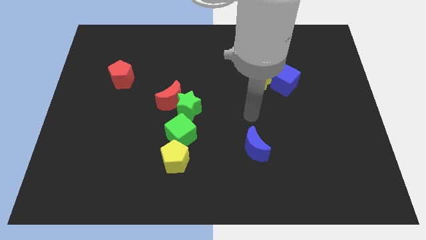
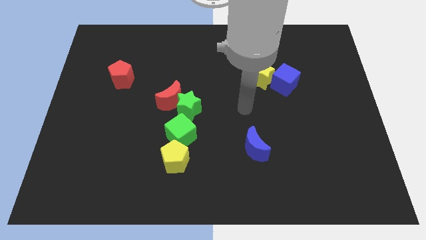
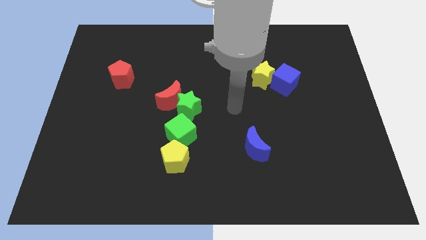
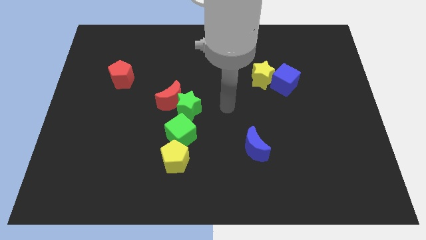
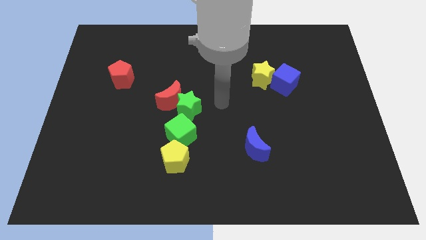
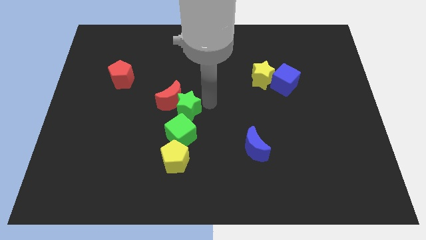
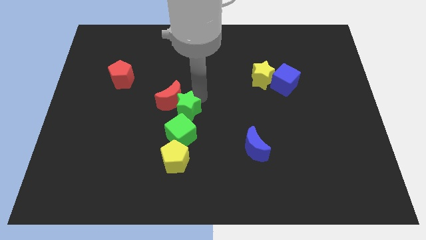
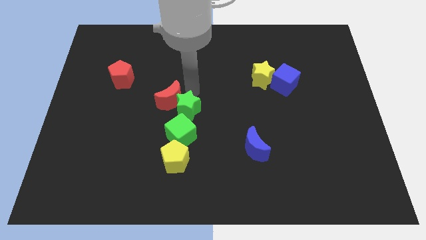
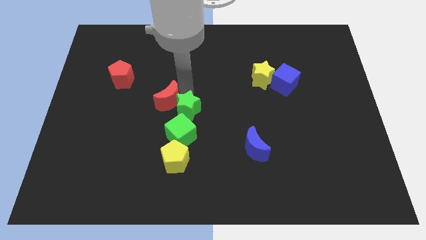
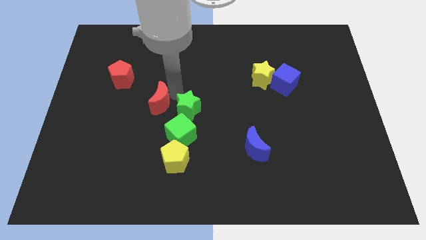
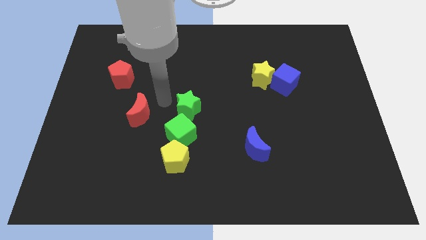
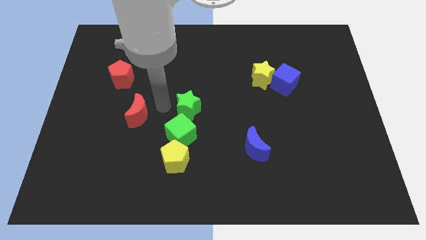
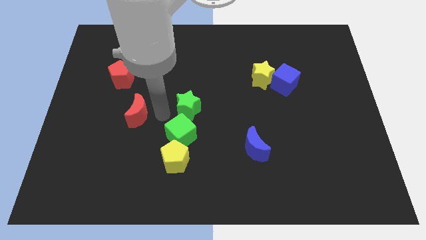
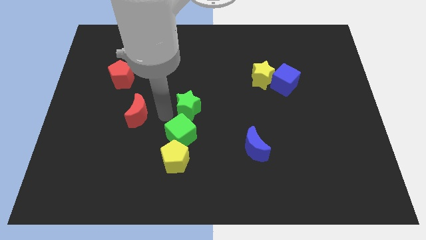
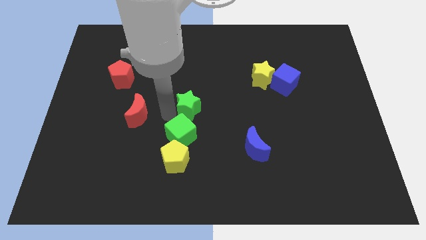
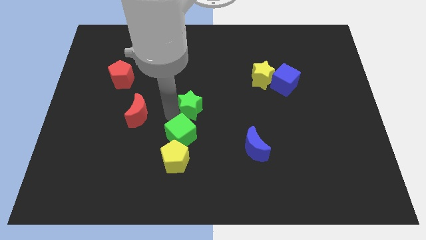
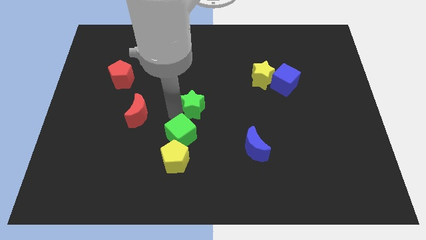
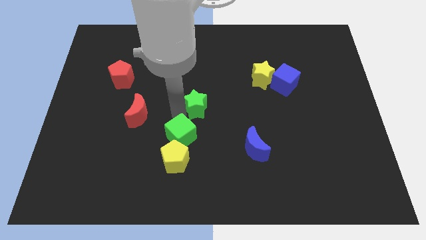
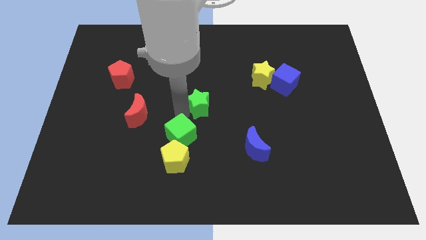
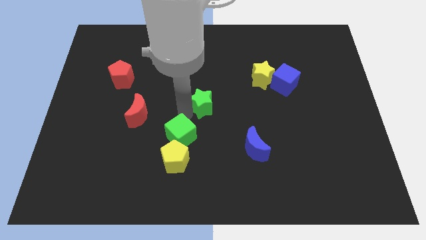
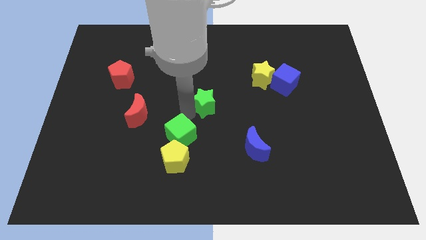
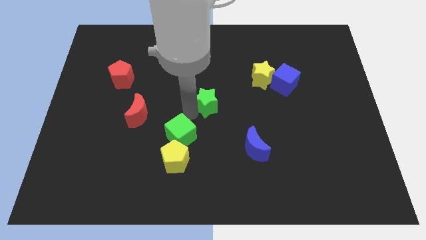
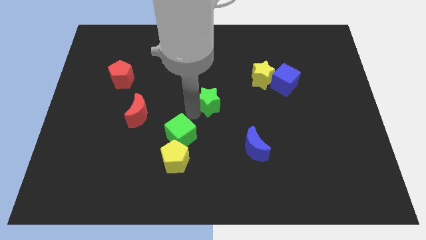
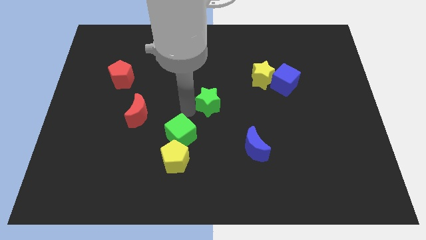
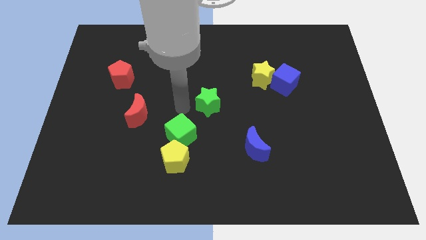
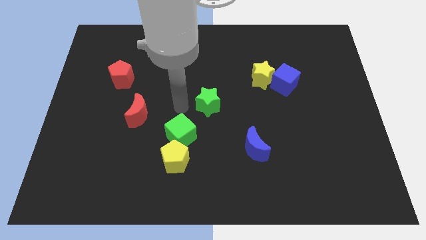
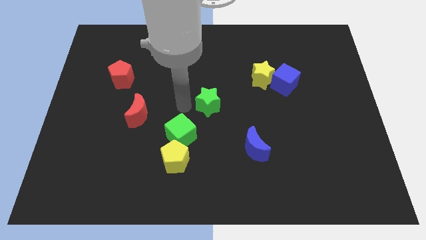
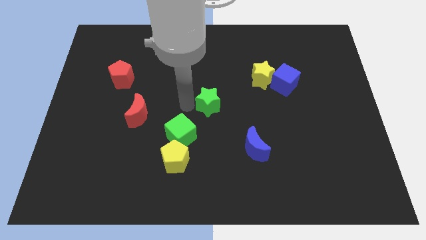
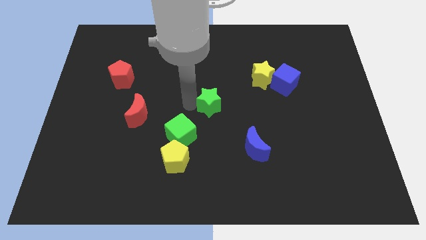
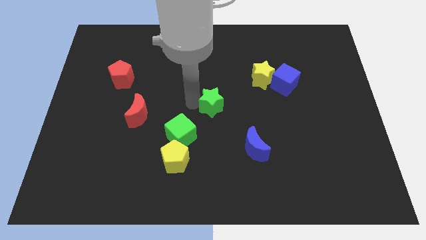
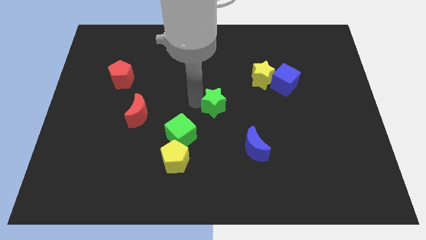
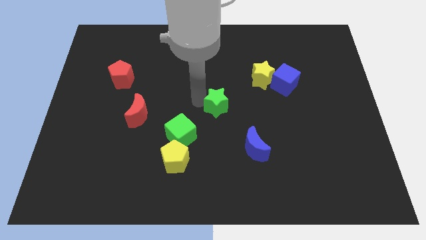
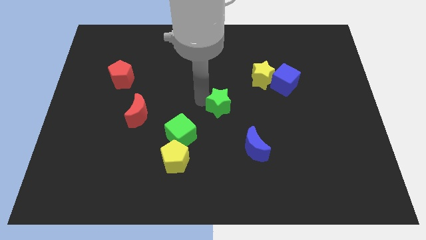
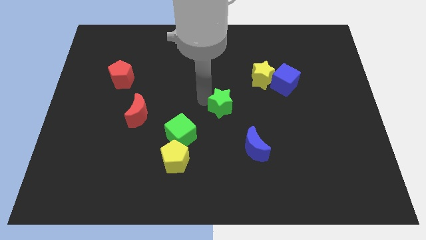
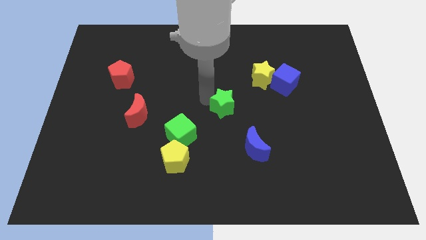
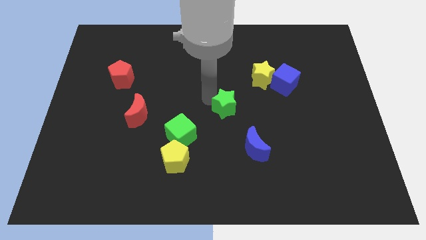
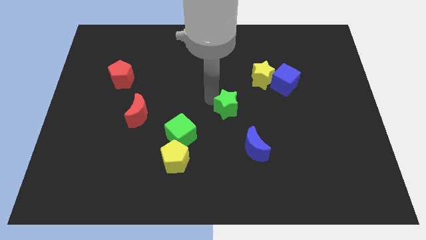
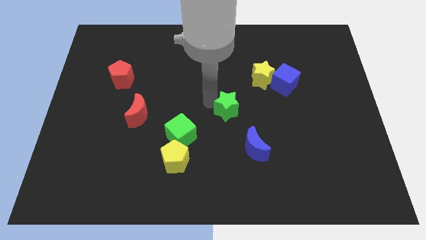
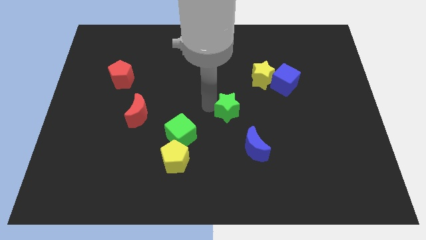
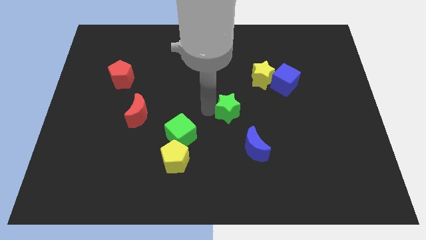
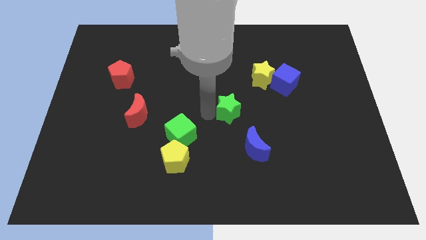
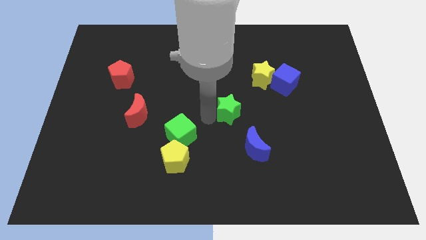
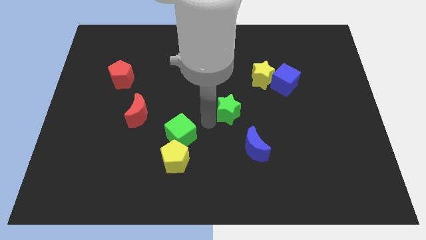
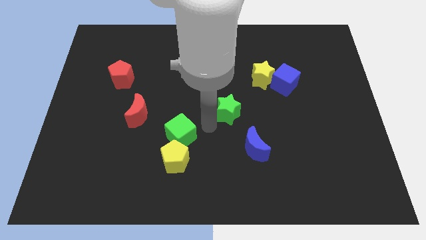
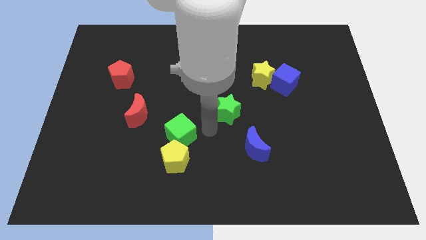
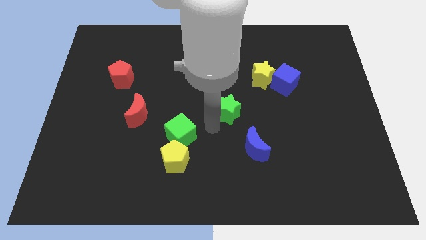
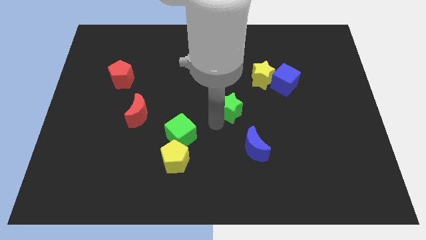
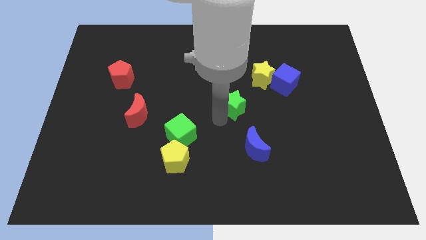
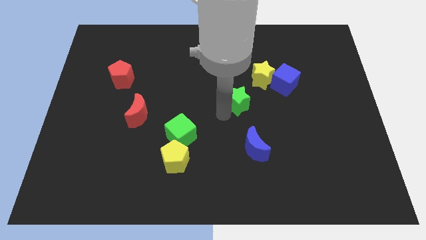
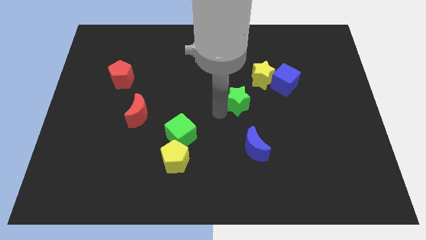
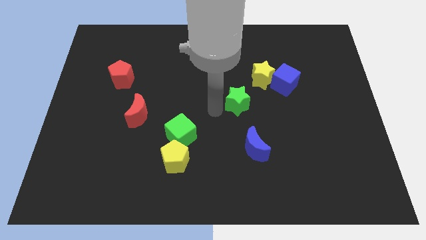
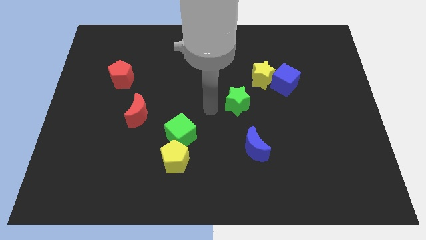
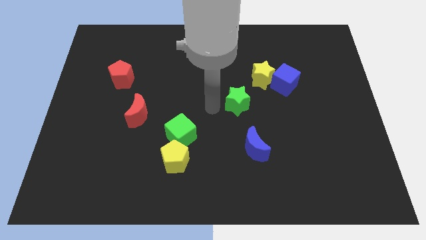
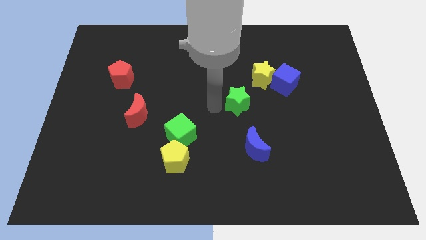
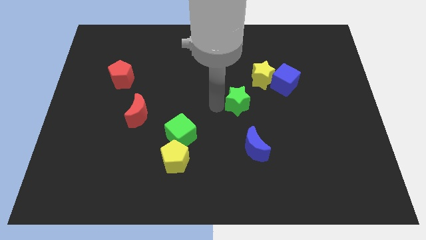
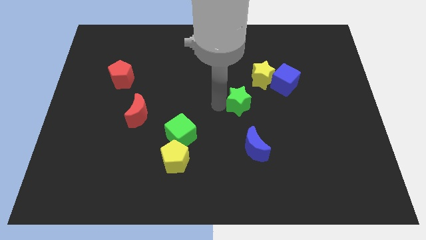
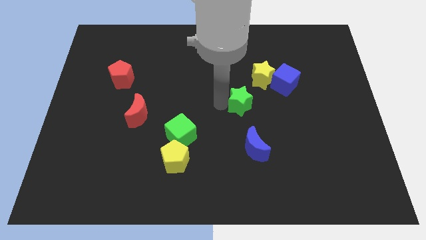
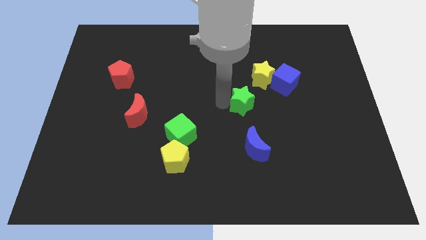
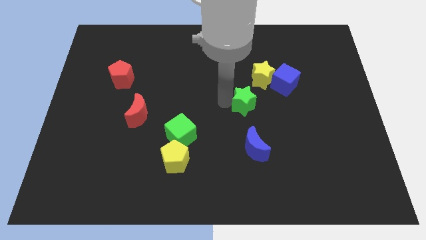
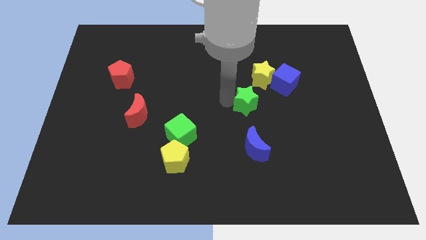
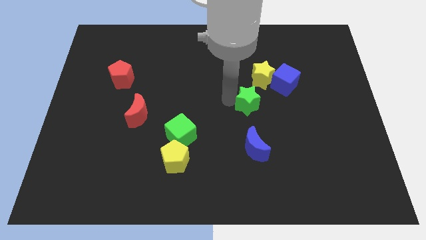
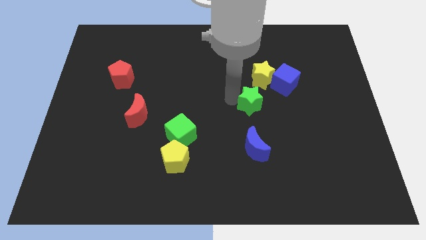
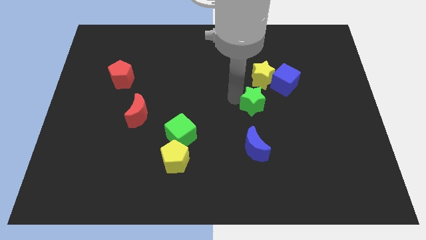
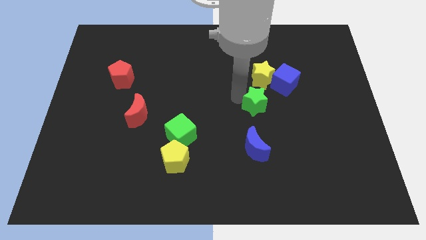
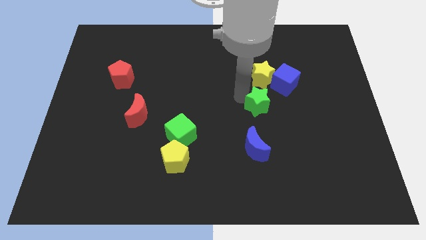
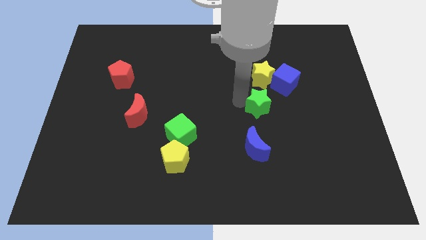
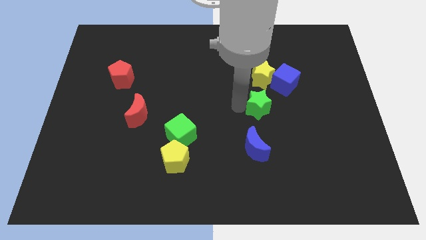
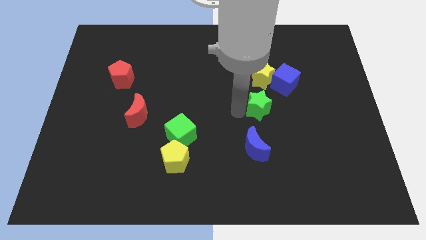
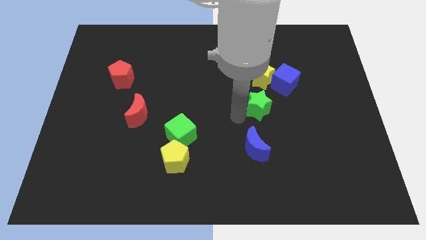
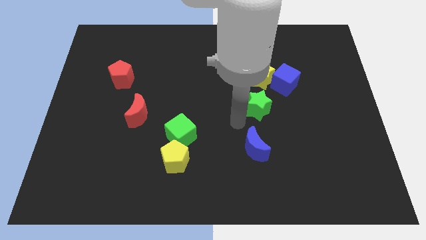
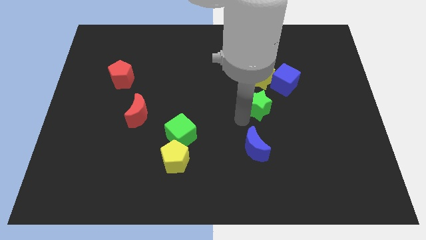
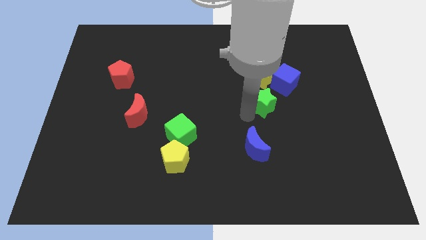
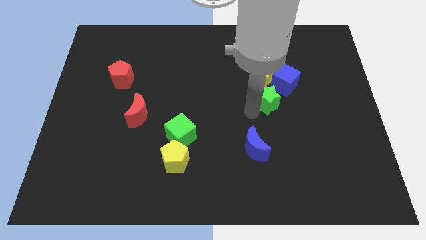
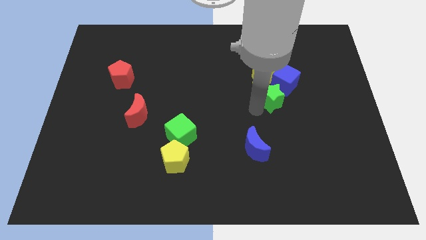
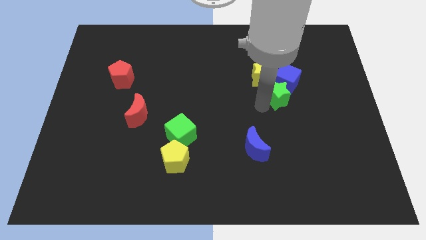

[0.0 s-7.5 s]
move the green star towards the blue cube
